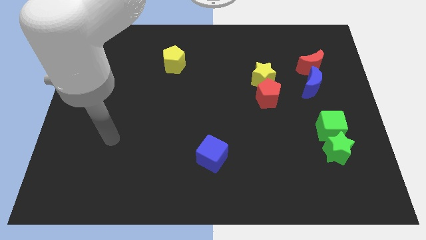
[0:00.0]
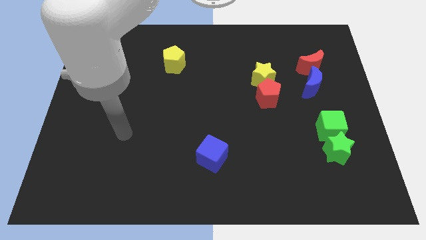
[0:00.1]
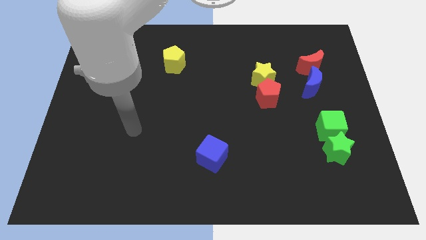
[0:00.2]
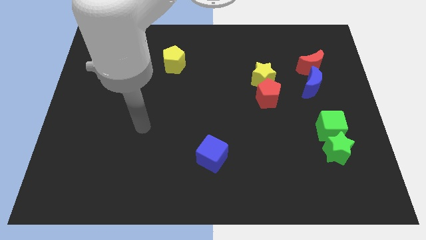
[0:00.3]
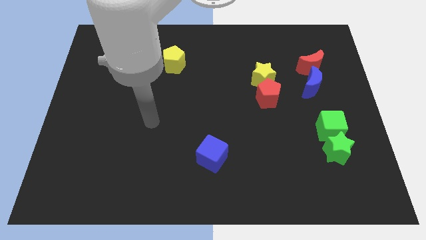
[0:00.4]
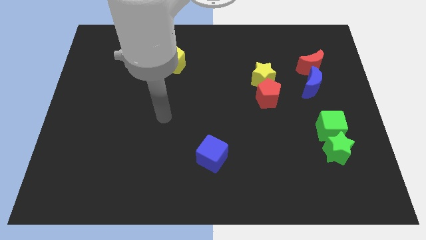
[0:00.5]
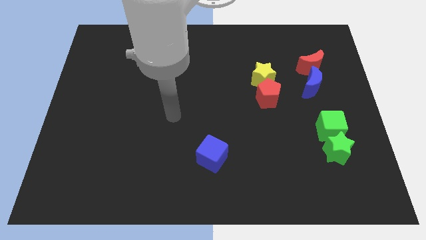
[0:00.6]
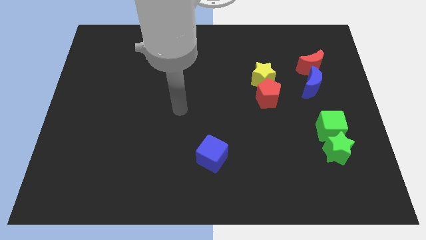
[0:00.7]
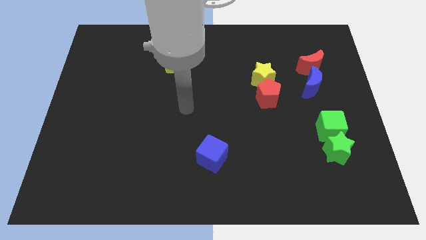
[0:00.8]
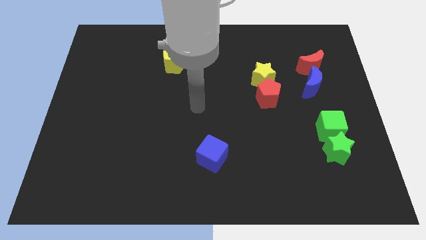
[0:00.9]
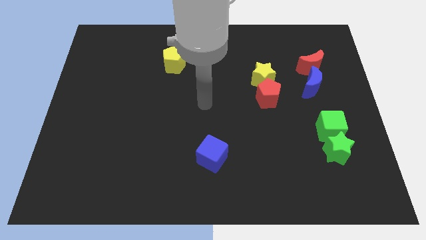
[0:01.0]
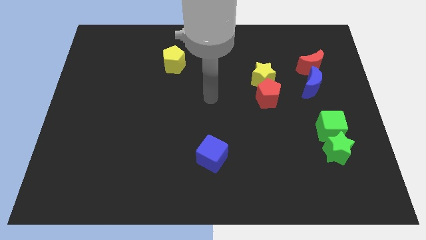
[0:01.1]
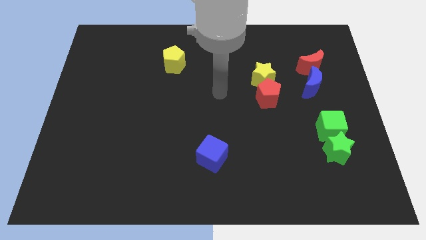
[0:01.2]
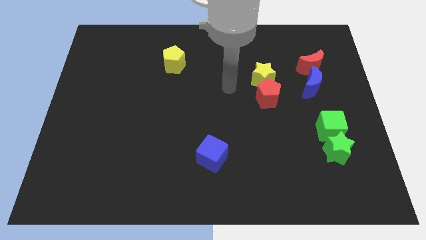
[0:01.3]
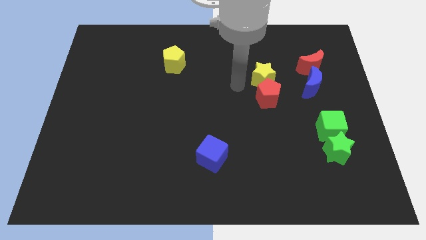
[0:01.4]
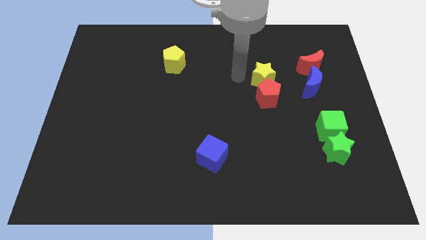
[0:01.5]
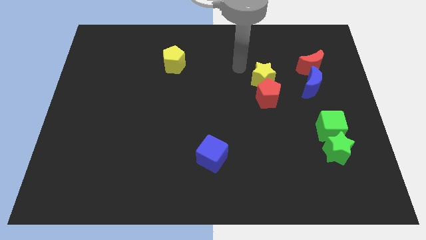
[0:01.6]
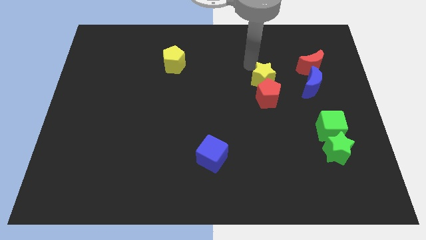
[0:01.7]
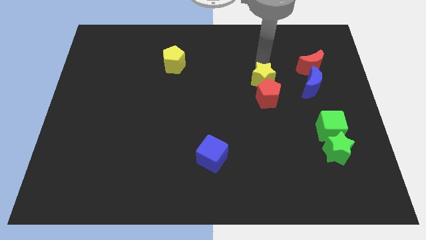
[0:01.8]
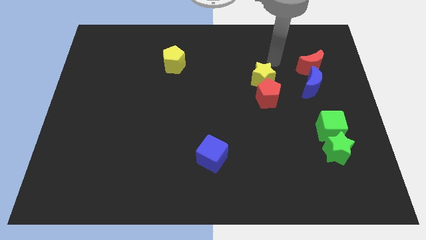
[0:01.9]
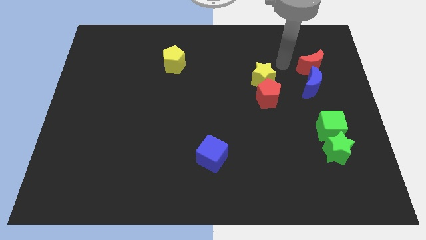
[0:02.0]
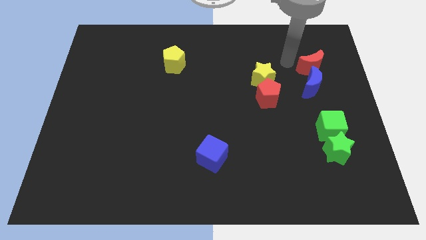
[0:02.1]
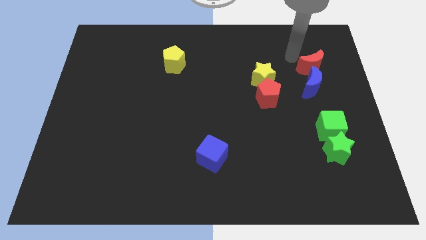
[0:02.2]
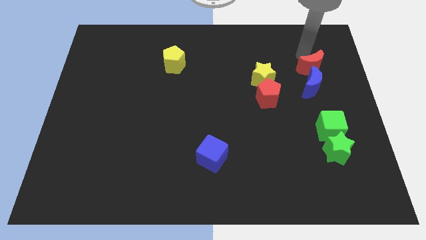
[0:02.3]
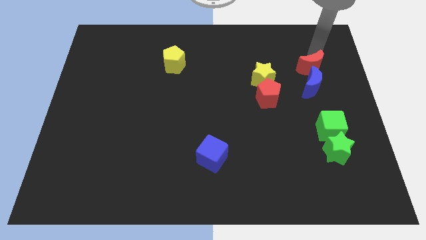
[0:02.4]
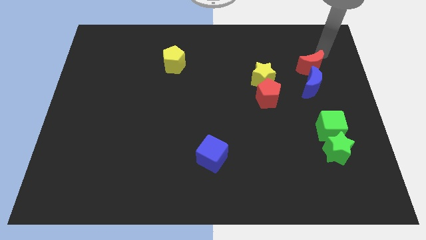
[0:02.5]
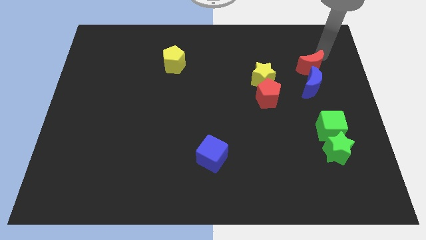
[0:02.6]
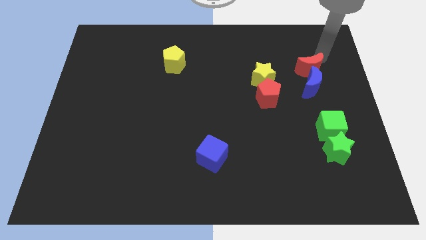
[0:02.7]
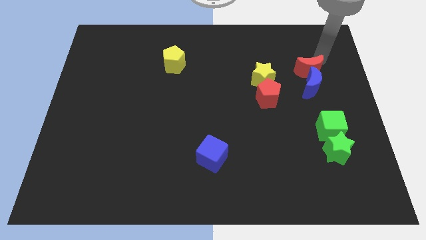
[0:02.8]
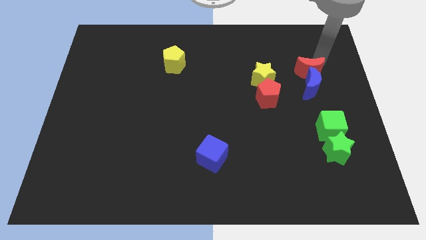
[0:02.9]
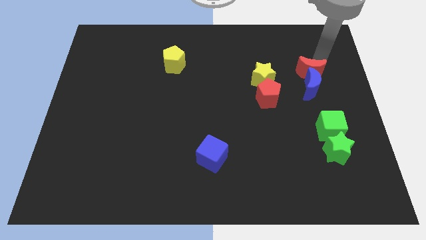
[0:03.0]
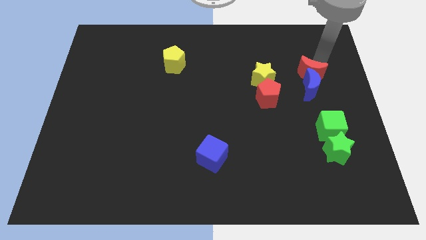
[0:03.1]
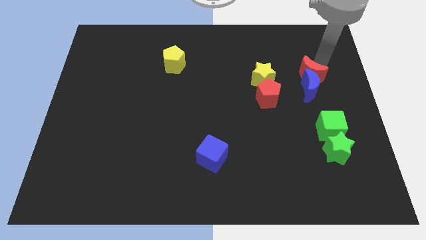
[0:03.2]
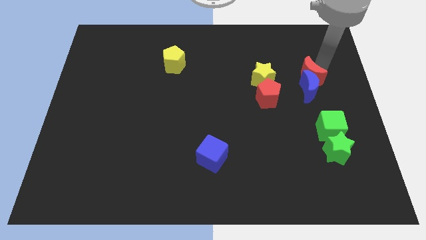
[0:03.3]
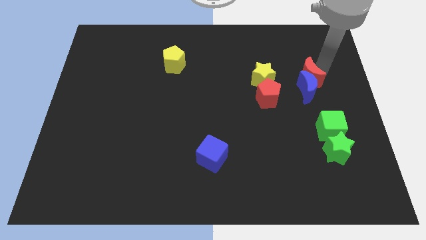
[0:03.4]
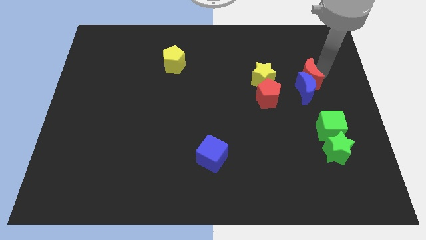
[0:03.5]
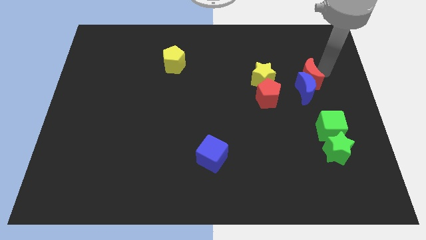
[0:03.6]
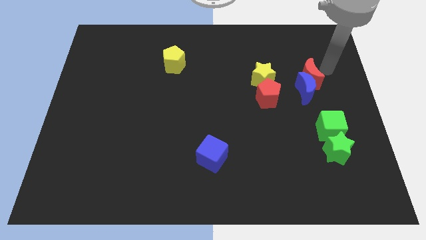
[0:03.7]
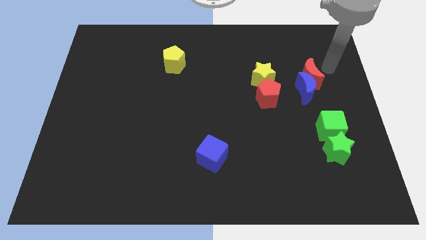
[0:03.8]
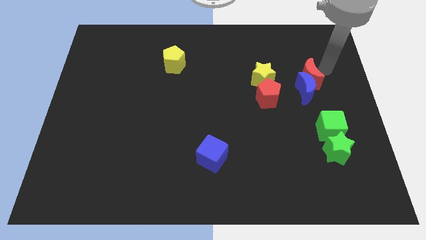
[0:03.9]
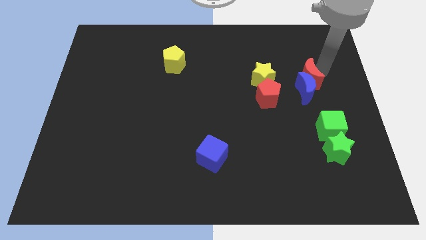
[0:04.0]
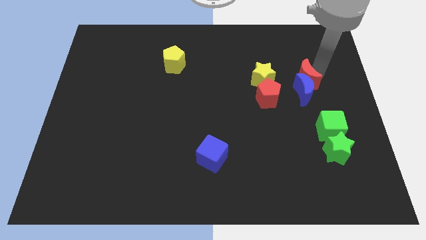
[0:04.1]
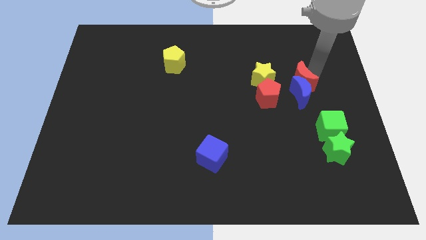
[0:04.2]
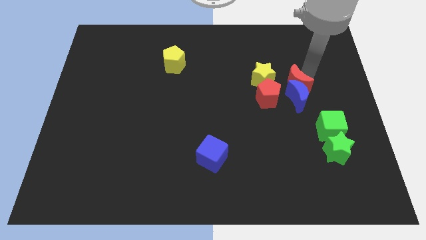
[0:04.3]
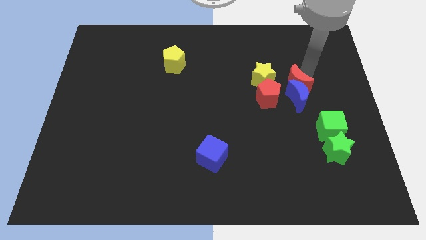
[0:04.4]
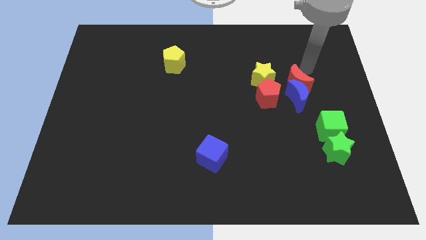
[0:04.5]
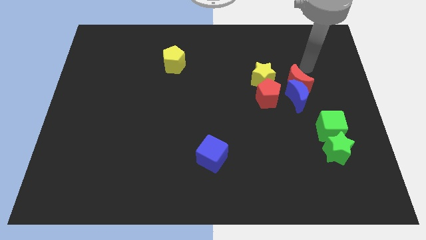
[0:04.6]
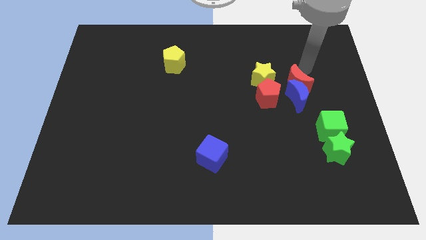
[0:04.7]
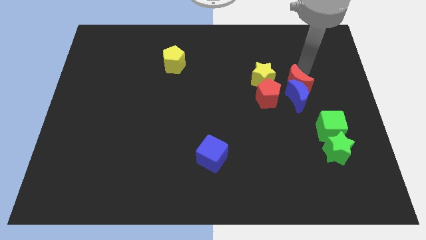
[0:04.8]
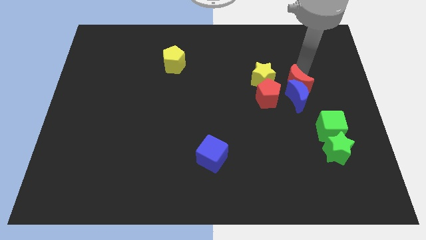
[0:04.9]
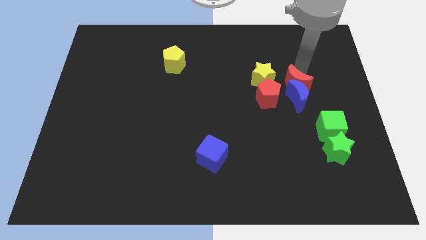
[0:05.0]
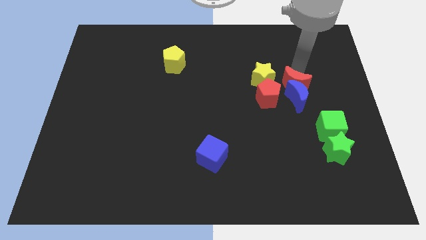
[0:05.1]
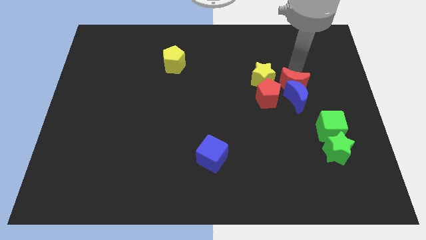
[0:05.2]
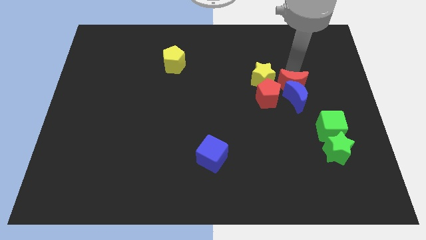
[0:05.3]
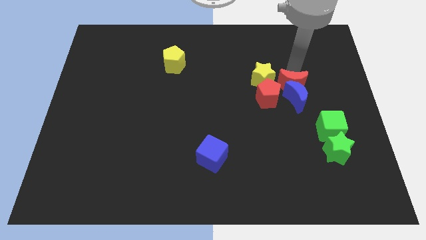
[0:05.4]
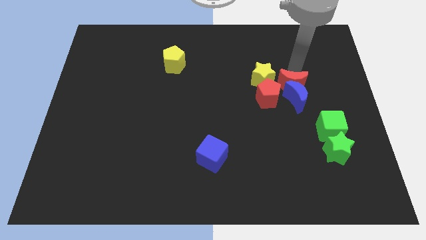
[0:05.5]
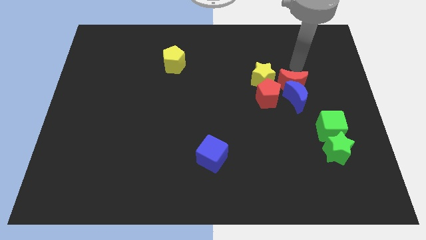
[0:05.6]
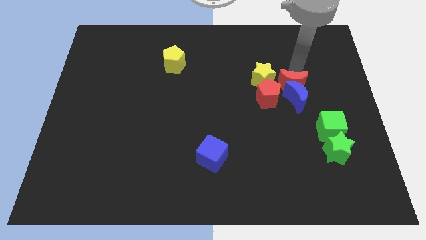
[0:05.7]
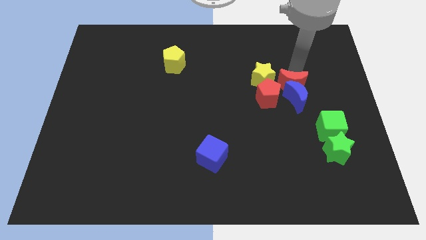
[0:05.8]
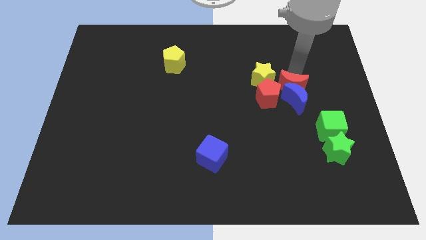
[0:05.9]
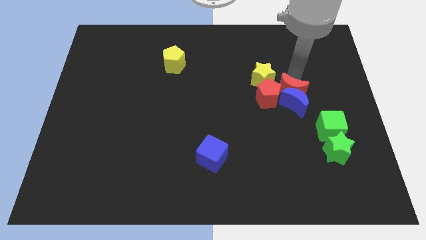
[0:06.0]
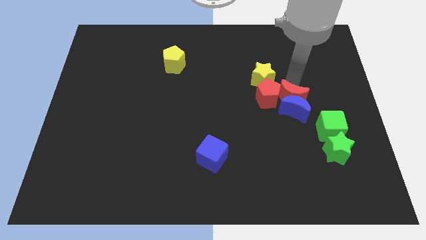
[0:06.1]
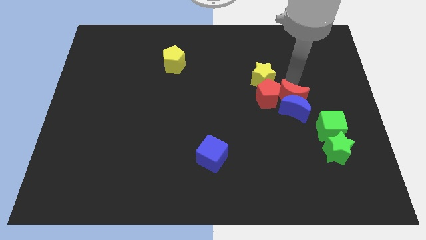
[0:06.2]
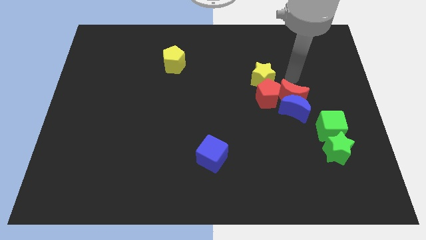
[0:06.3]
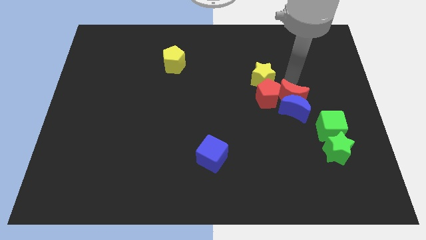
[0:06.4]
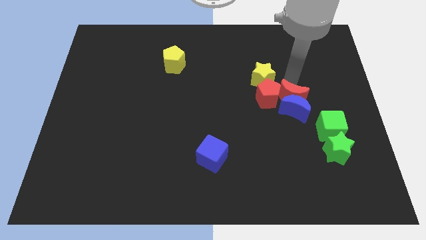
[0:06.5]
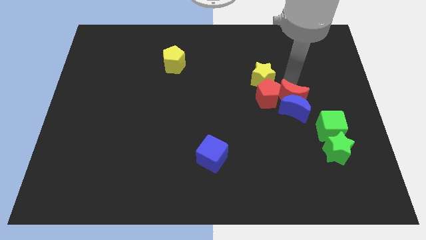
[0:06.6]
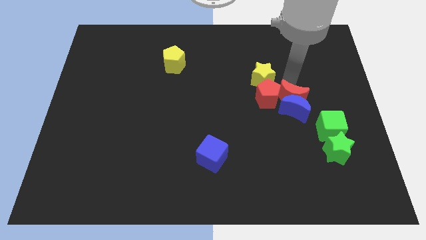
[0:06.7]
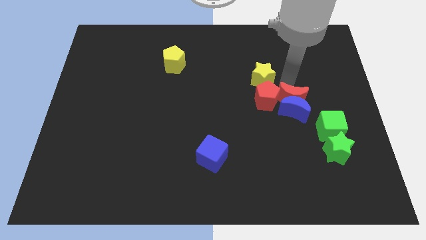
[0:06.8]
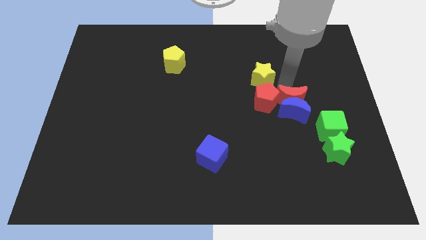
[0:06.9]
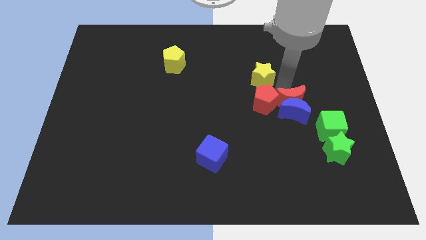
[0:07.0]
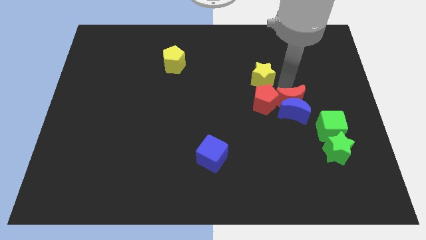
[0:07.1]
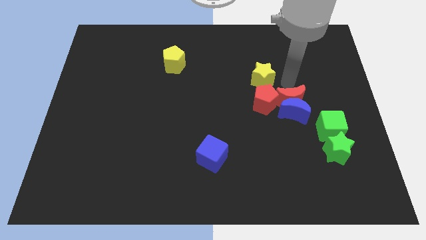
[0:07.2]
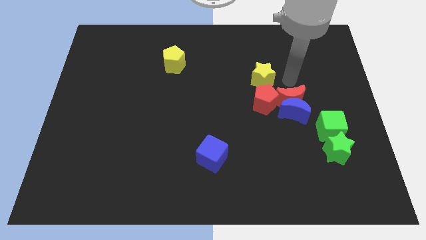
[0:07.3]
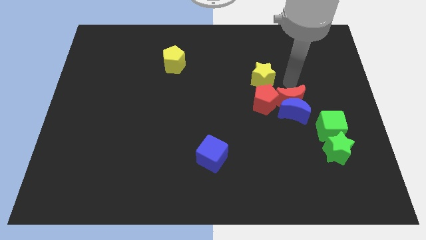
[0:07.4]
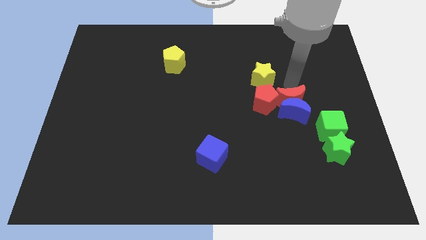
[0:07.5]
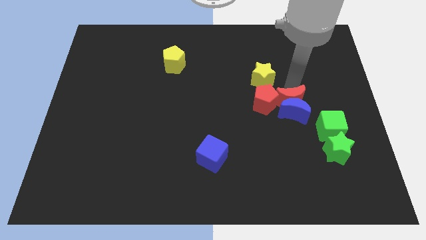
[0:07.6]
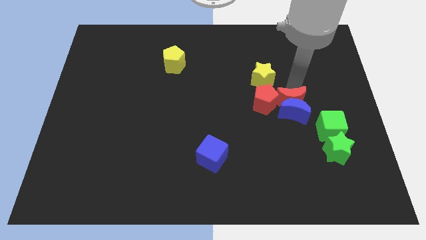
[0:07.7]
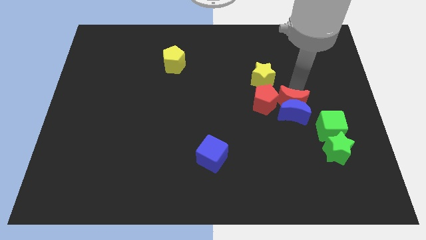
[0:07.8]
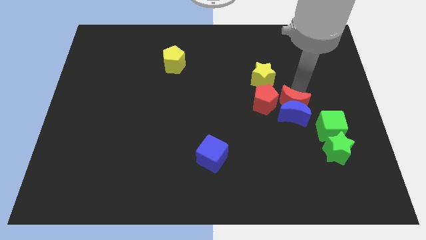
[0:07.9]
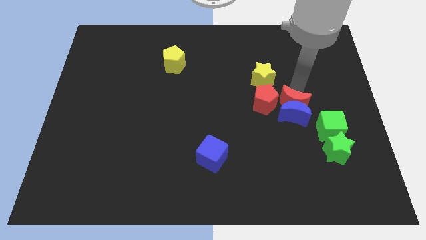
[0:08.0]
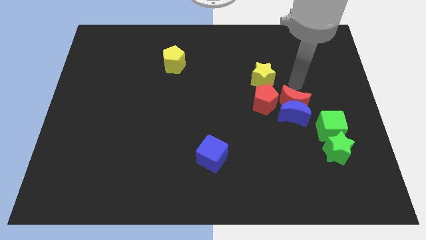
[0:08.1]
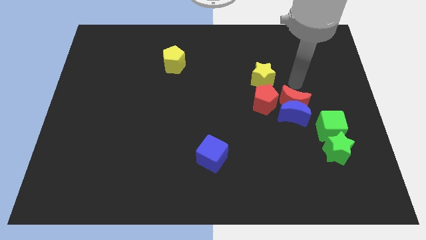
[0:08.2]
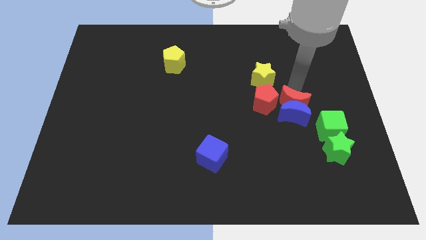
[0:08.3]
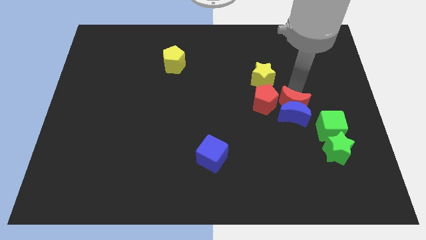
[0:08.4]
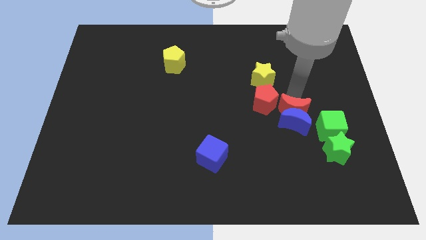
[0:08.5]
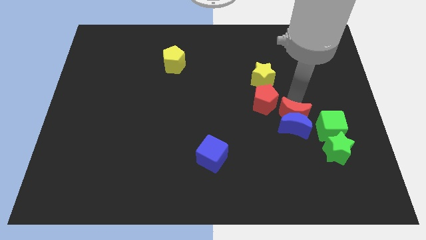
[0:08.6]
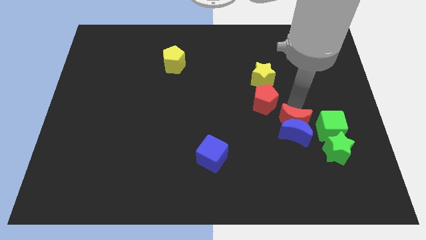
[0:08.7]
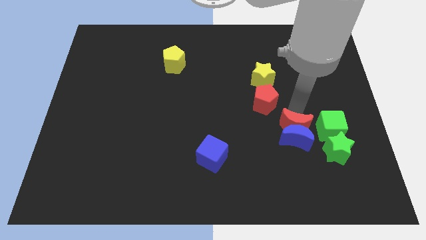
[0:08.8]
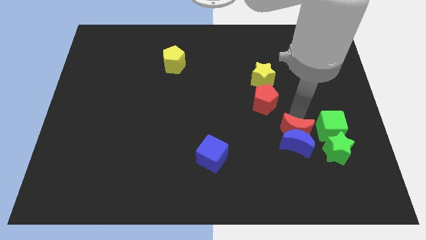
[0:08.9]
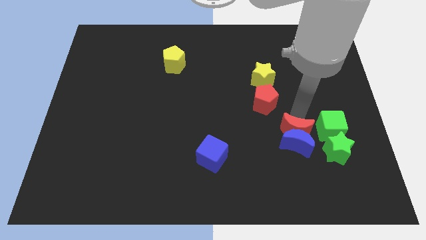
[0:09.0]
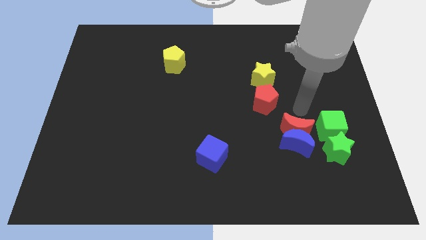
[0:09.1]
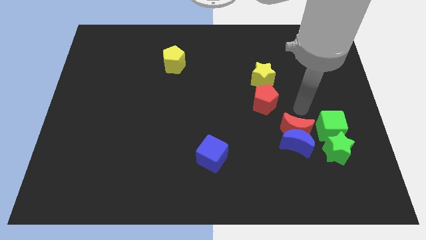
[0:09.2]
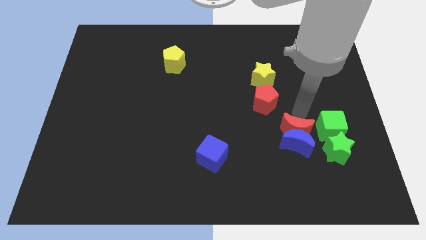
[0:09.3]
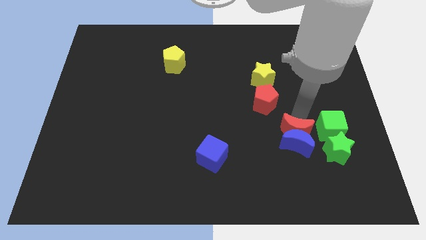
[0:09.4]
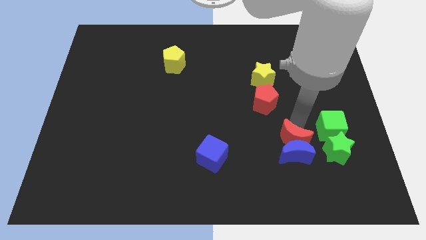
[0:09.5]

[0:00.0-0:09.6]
push the red moon to the left side of the green star
